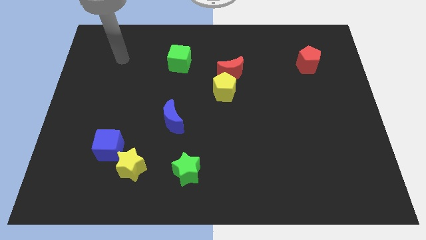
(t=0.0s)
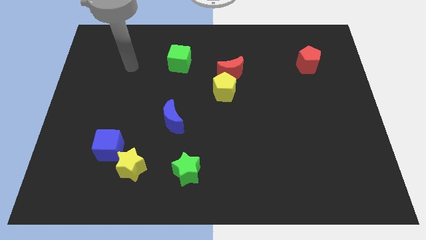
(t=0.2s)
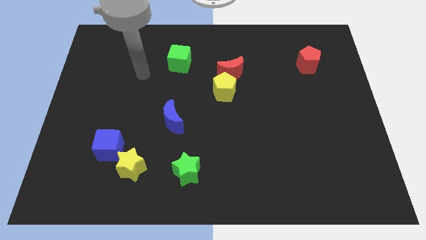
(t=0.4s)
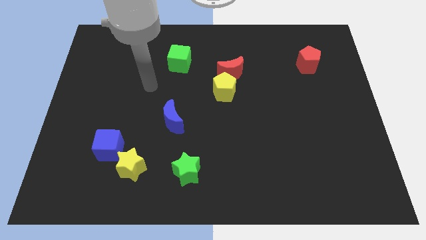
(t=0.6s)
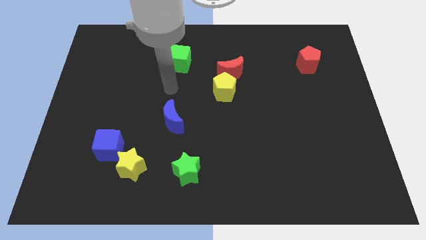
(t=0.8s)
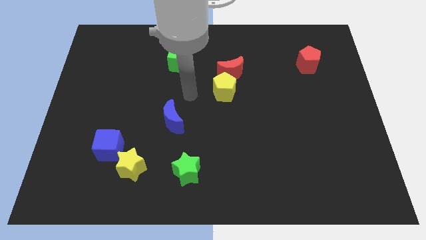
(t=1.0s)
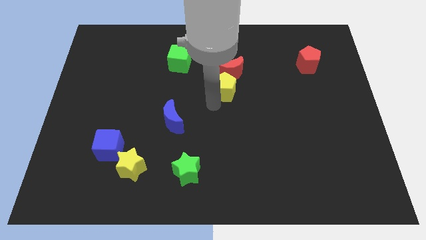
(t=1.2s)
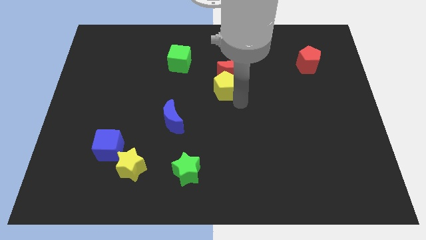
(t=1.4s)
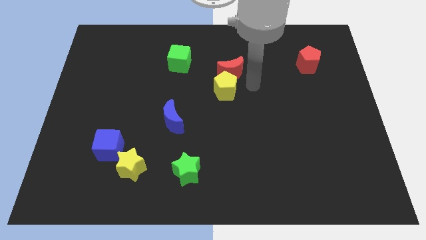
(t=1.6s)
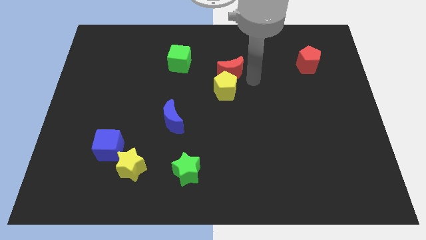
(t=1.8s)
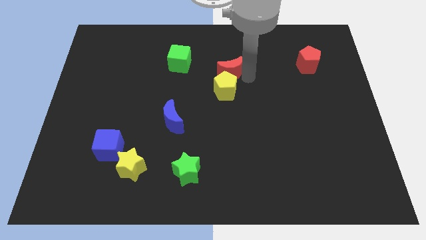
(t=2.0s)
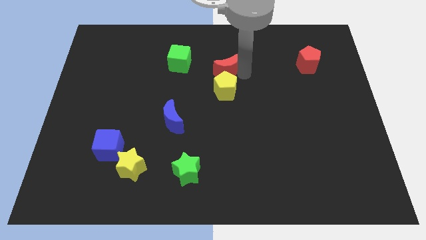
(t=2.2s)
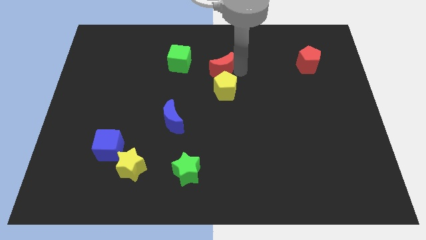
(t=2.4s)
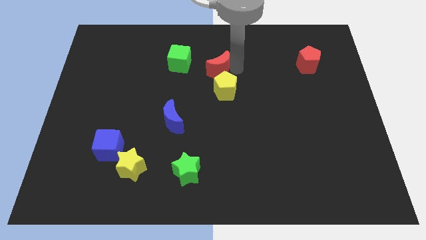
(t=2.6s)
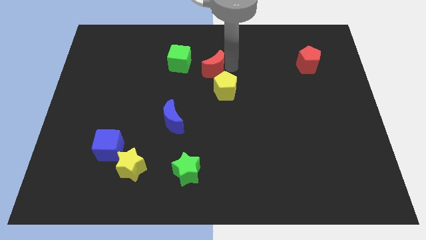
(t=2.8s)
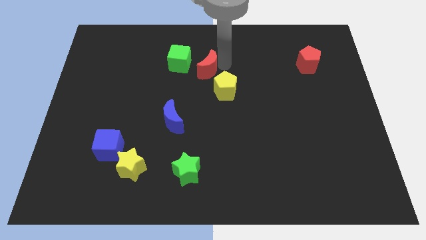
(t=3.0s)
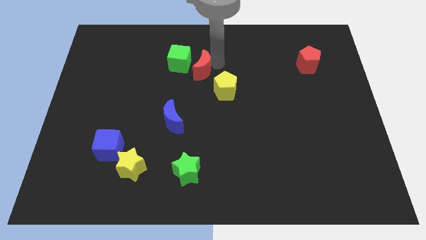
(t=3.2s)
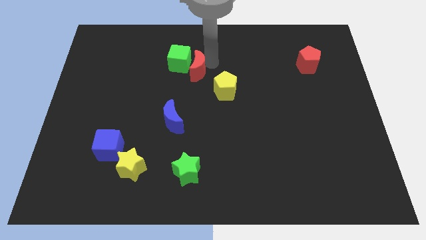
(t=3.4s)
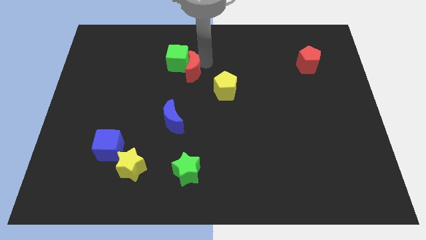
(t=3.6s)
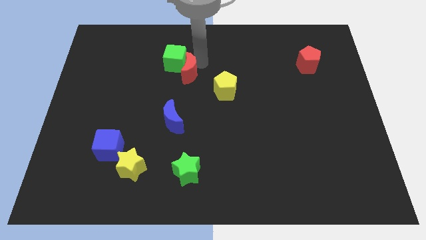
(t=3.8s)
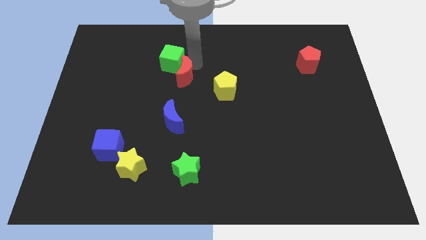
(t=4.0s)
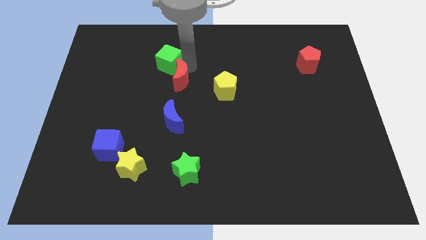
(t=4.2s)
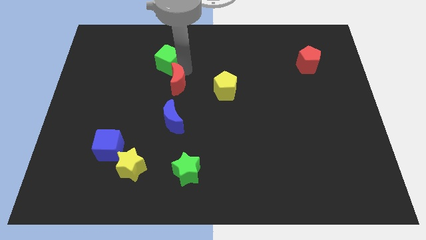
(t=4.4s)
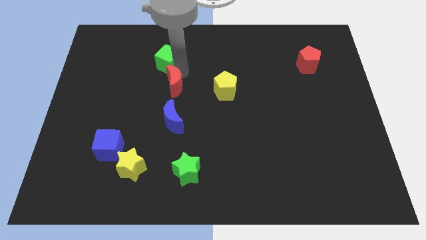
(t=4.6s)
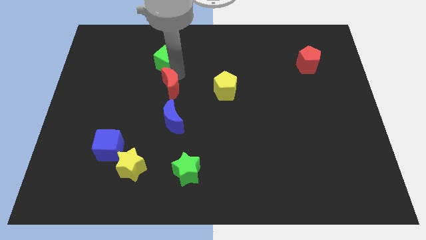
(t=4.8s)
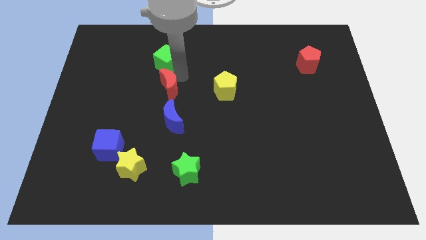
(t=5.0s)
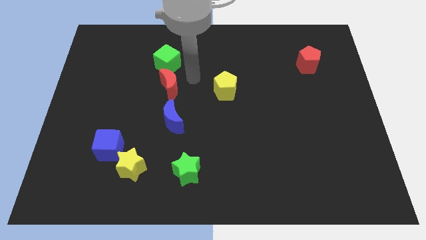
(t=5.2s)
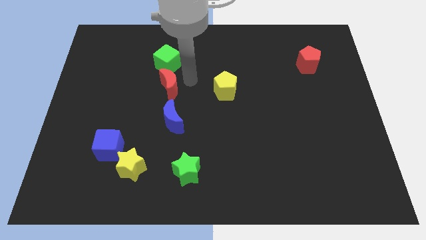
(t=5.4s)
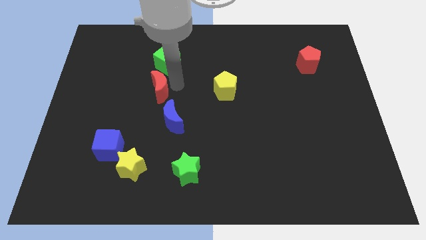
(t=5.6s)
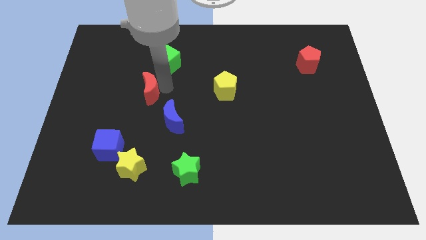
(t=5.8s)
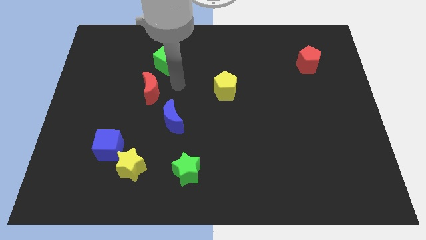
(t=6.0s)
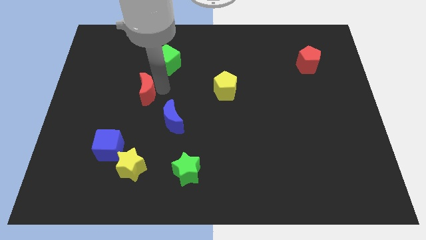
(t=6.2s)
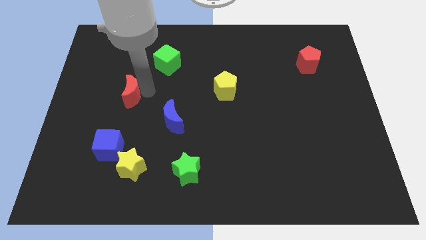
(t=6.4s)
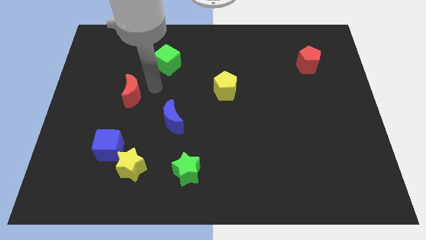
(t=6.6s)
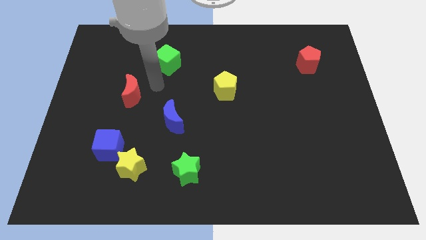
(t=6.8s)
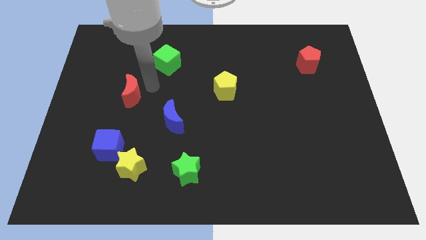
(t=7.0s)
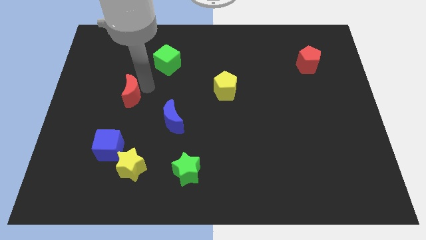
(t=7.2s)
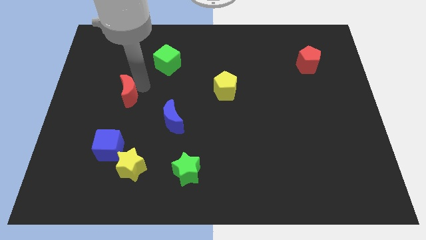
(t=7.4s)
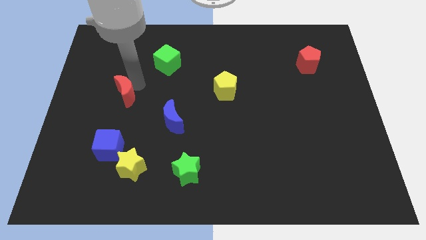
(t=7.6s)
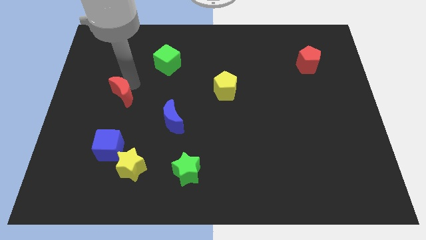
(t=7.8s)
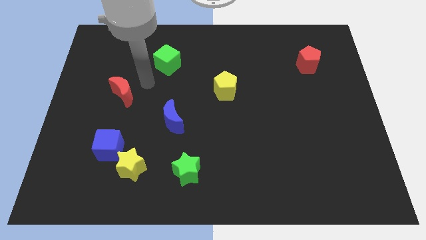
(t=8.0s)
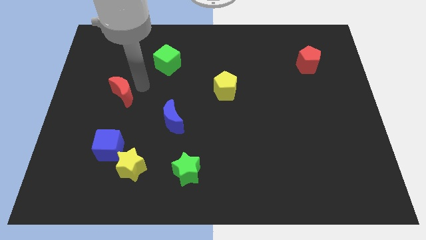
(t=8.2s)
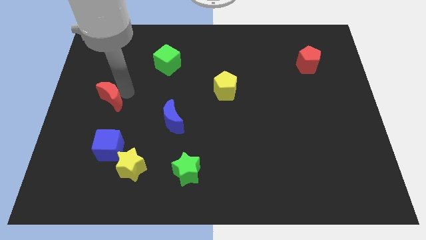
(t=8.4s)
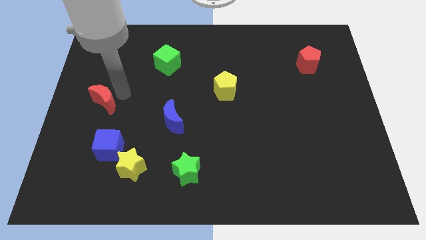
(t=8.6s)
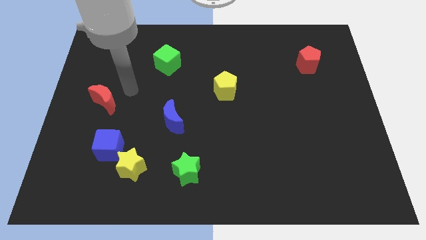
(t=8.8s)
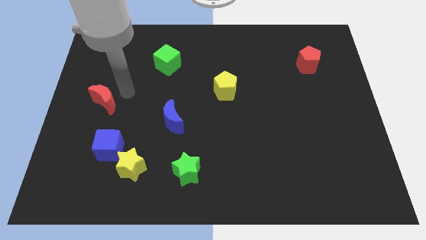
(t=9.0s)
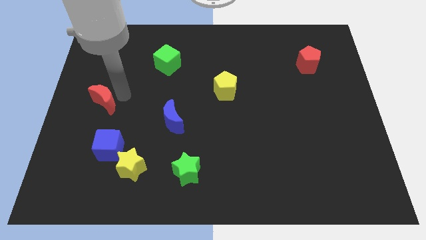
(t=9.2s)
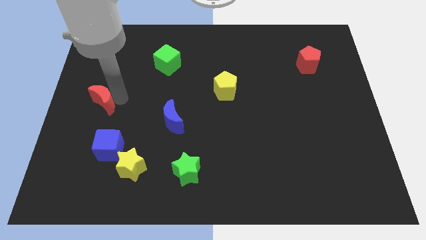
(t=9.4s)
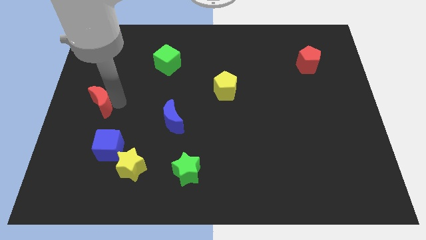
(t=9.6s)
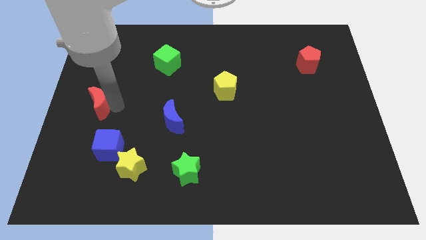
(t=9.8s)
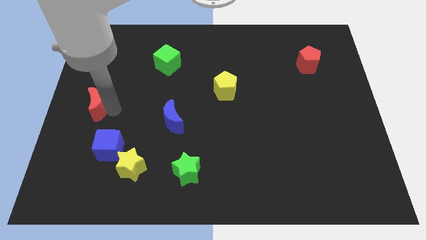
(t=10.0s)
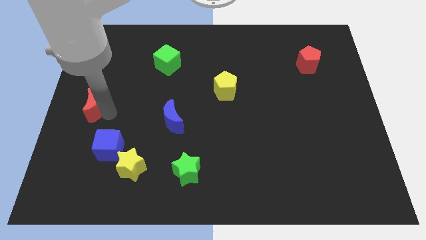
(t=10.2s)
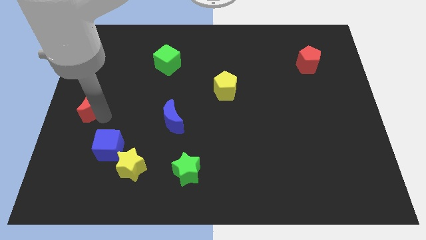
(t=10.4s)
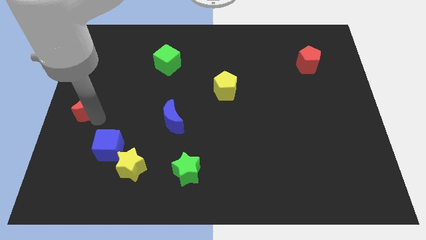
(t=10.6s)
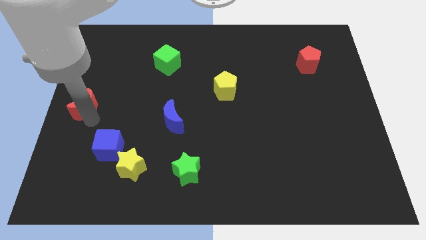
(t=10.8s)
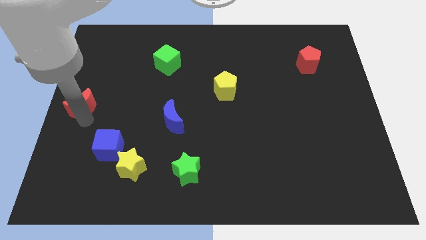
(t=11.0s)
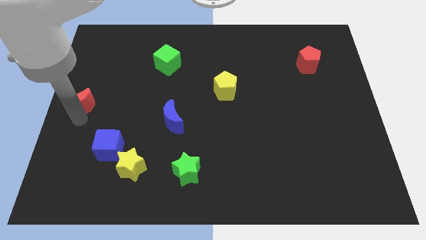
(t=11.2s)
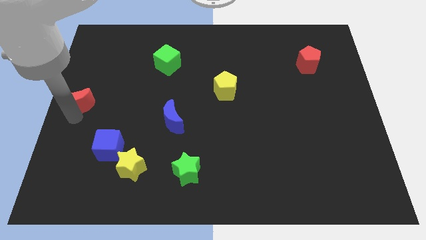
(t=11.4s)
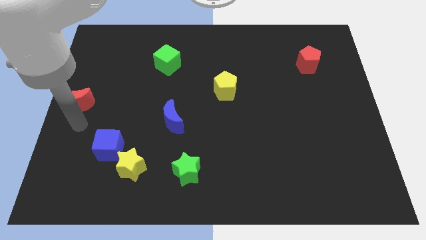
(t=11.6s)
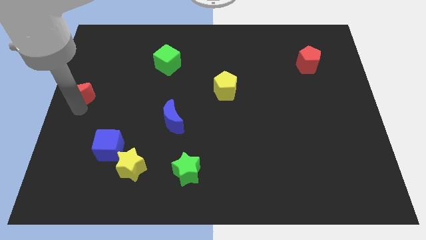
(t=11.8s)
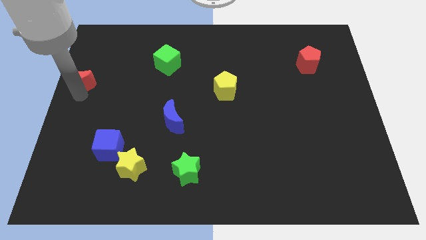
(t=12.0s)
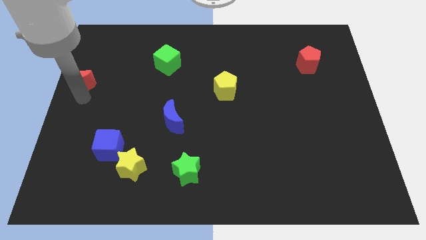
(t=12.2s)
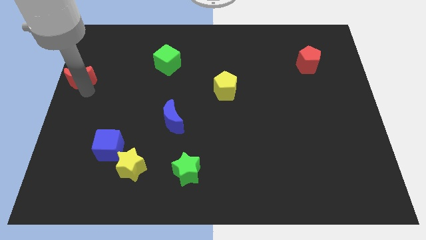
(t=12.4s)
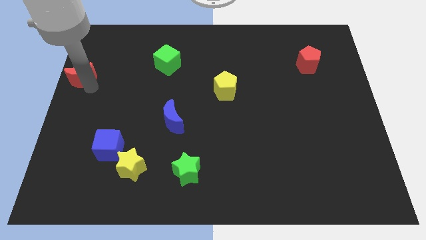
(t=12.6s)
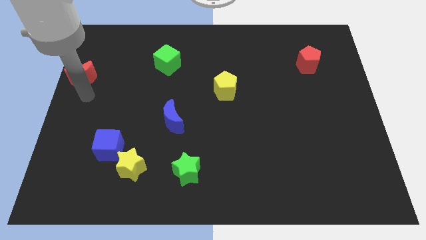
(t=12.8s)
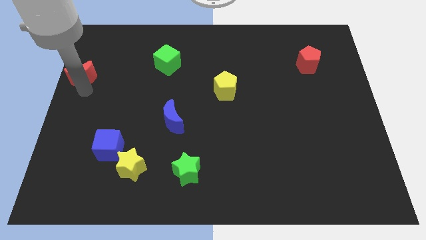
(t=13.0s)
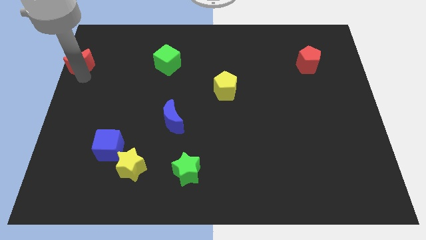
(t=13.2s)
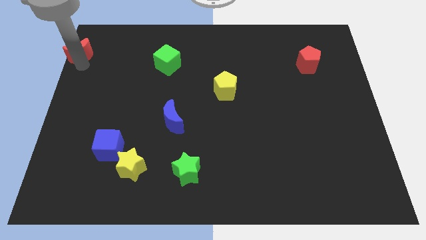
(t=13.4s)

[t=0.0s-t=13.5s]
slide the red moon to the top left of the board
